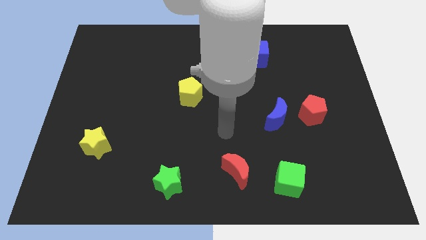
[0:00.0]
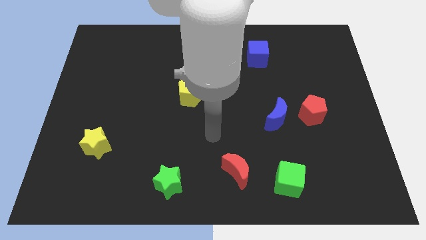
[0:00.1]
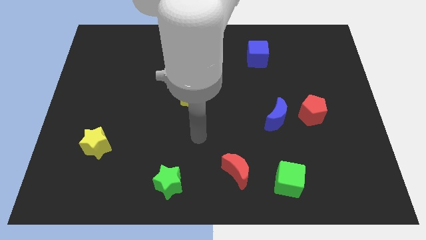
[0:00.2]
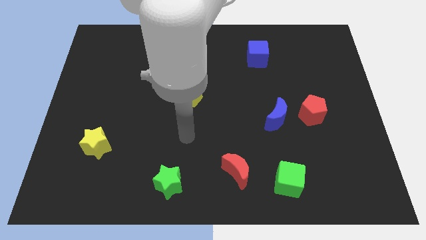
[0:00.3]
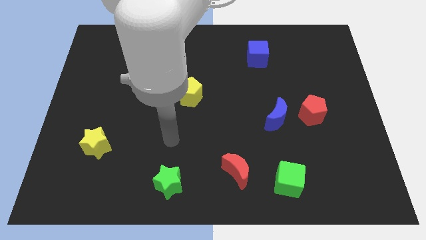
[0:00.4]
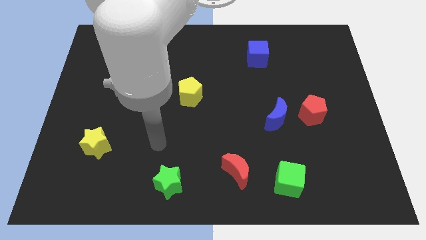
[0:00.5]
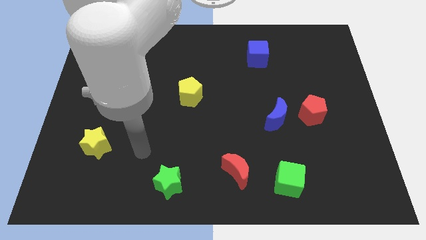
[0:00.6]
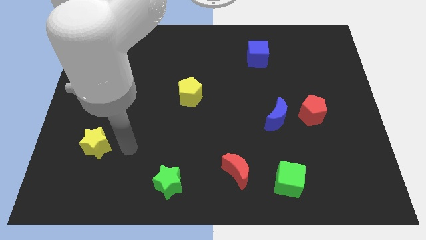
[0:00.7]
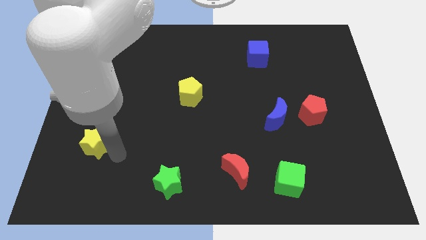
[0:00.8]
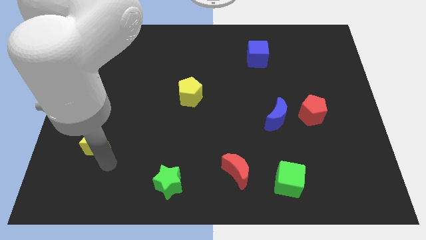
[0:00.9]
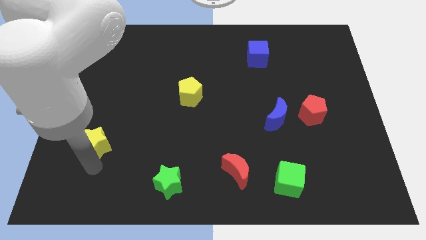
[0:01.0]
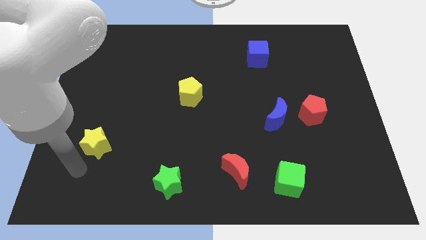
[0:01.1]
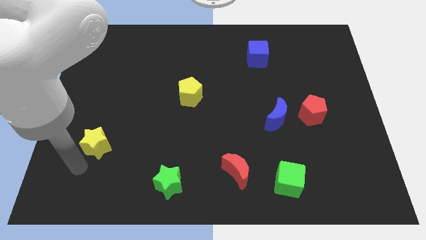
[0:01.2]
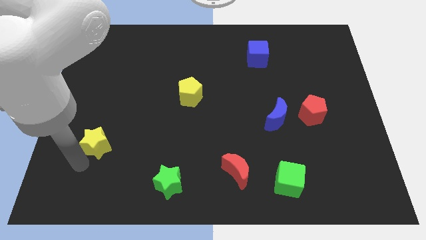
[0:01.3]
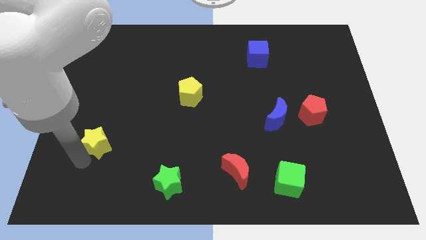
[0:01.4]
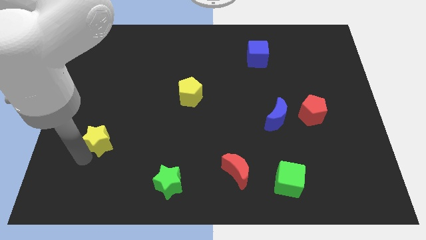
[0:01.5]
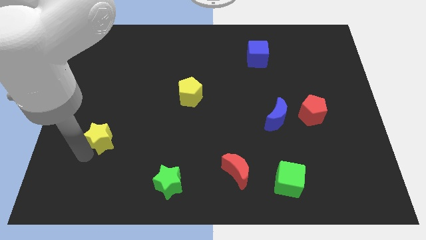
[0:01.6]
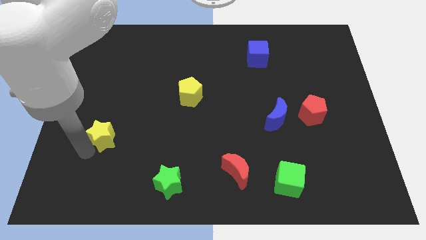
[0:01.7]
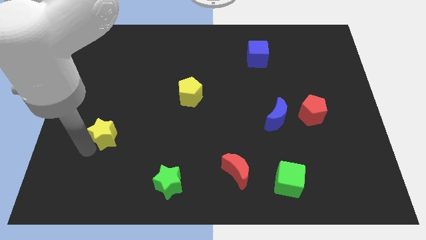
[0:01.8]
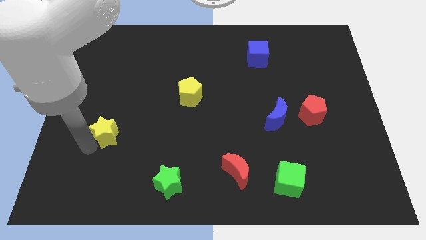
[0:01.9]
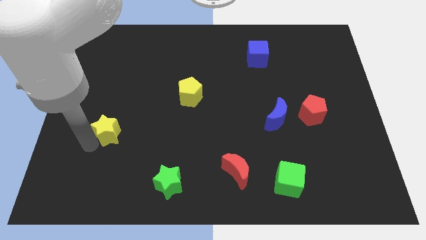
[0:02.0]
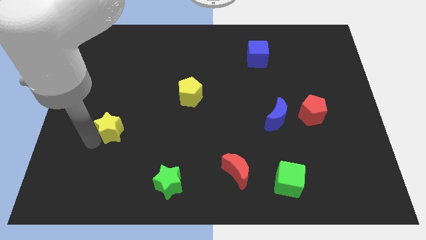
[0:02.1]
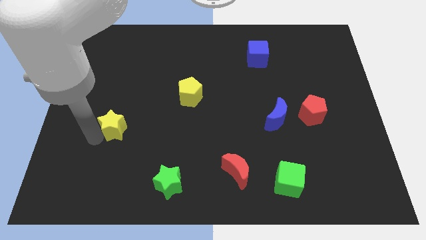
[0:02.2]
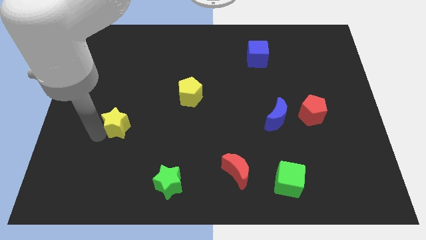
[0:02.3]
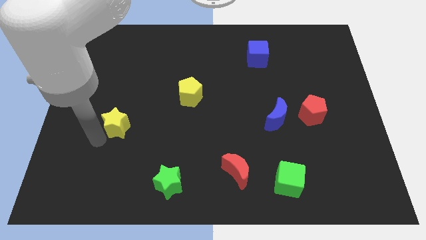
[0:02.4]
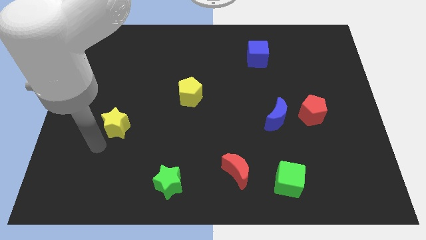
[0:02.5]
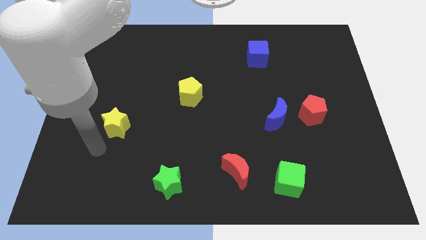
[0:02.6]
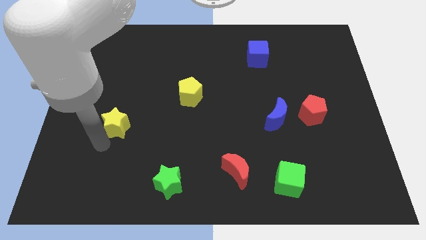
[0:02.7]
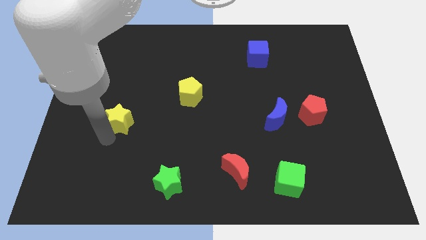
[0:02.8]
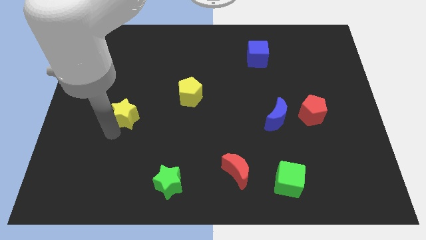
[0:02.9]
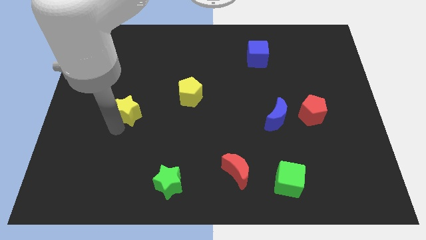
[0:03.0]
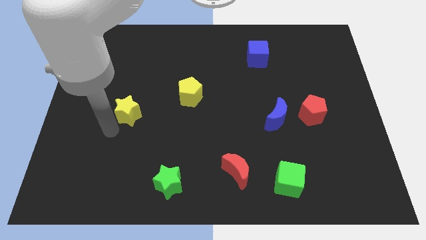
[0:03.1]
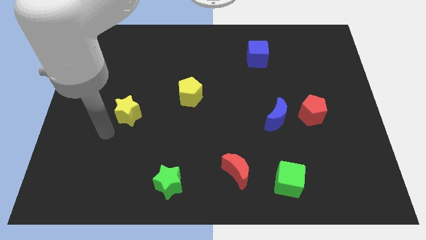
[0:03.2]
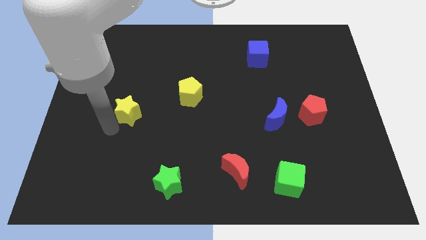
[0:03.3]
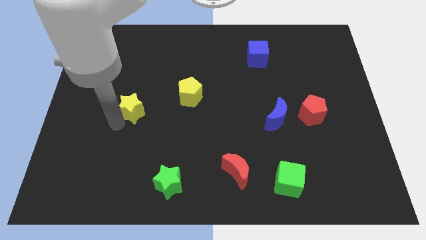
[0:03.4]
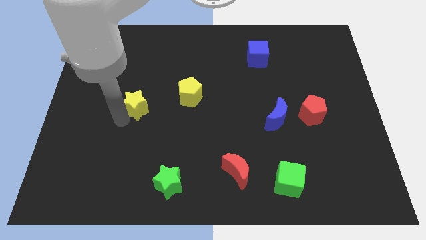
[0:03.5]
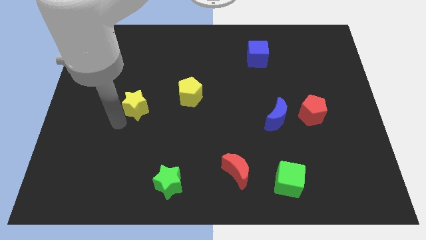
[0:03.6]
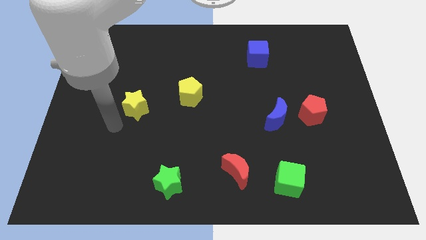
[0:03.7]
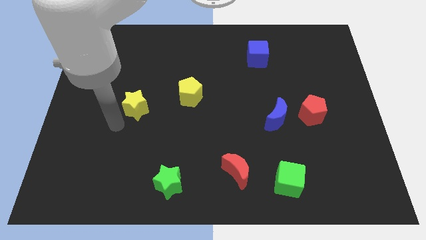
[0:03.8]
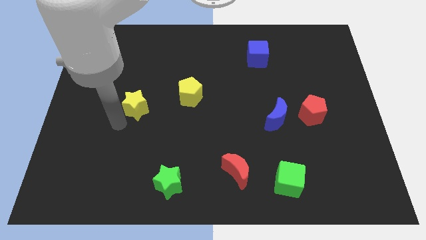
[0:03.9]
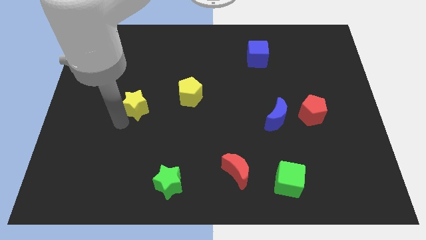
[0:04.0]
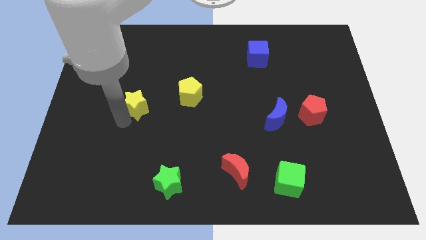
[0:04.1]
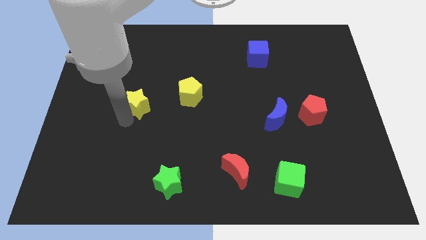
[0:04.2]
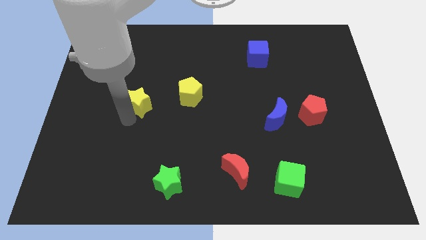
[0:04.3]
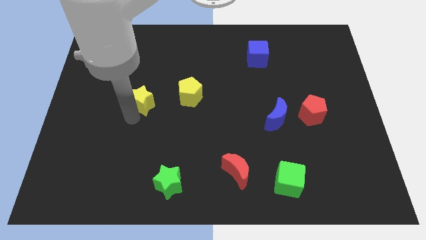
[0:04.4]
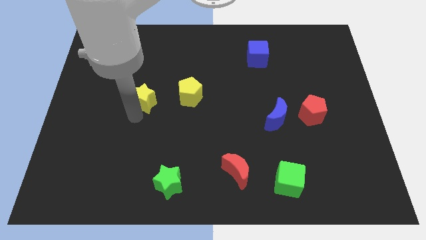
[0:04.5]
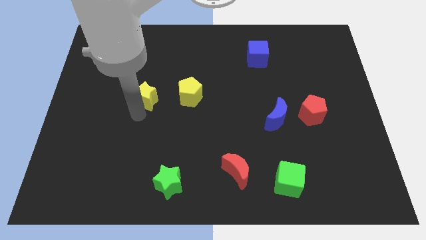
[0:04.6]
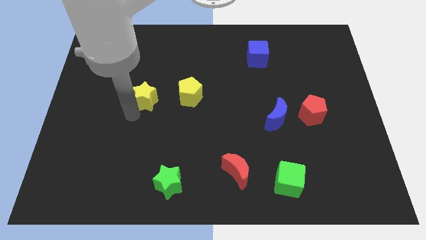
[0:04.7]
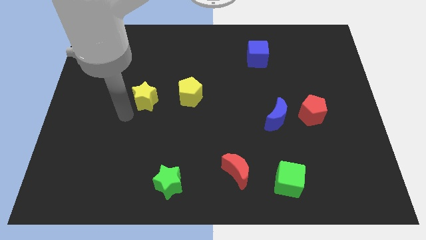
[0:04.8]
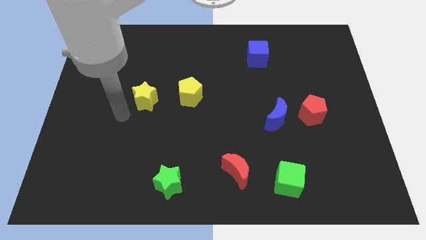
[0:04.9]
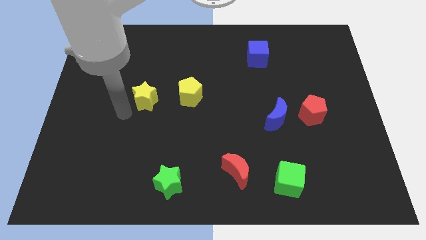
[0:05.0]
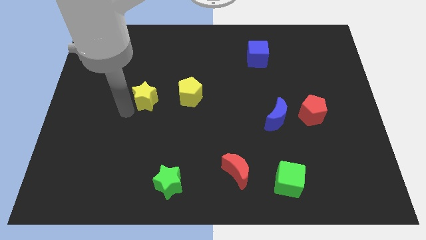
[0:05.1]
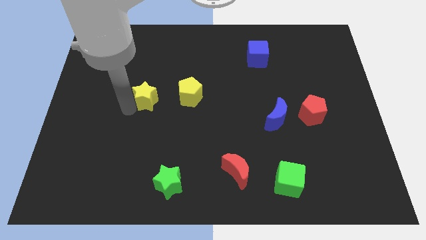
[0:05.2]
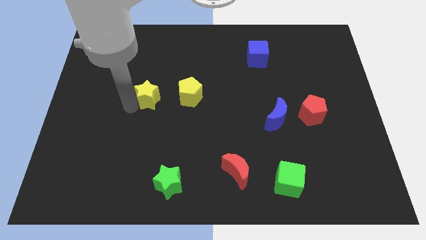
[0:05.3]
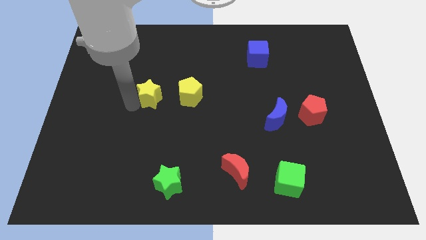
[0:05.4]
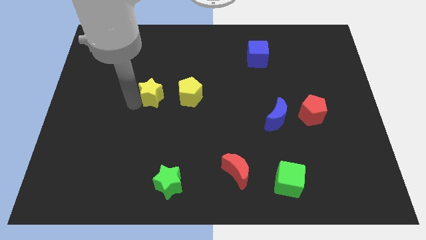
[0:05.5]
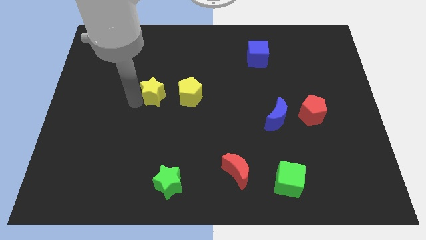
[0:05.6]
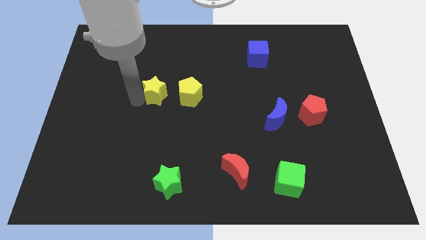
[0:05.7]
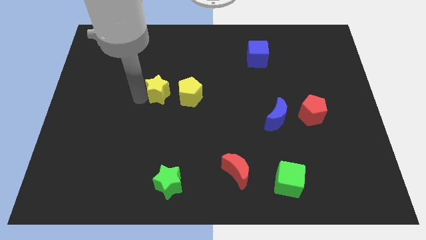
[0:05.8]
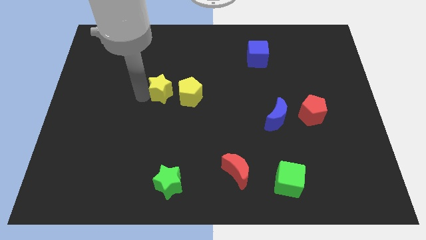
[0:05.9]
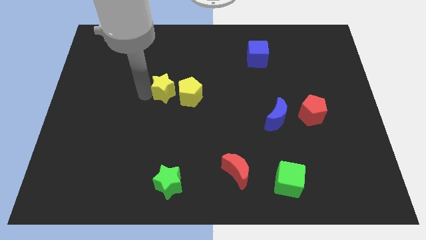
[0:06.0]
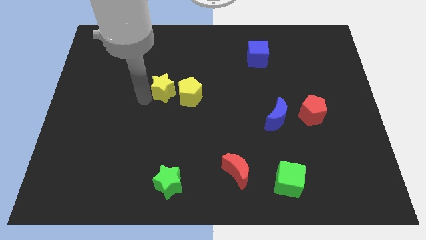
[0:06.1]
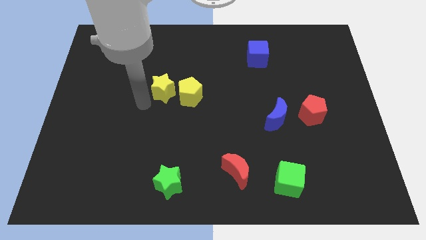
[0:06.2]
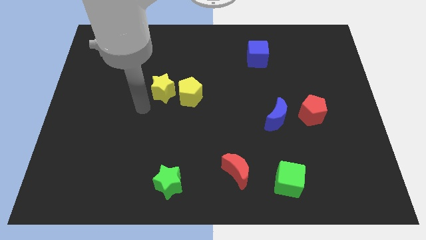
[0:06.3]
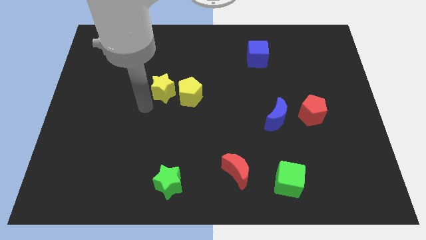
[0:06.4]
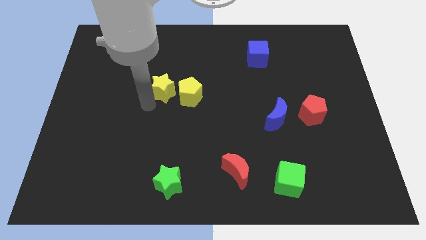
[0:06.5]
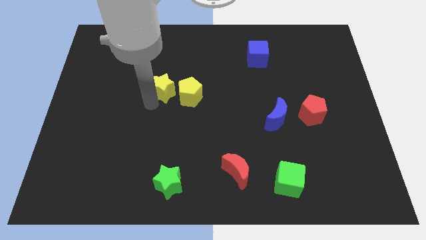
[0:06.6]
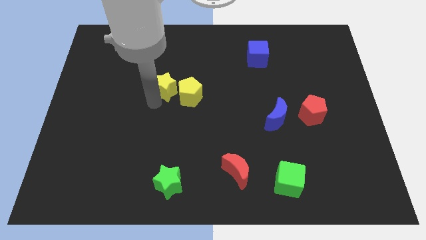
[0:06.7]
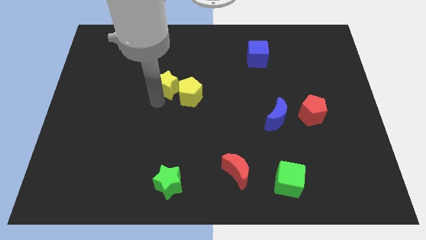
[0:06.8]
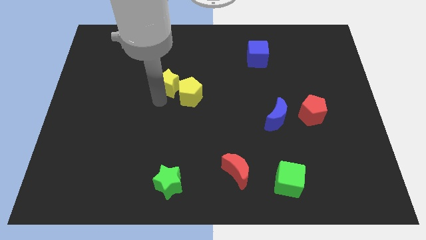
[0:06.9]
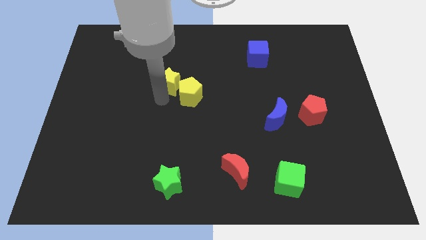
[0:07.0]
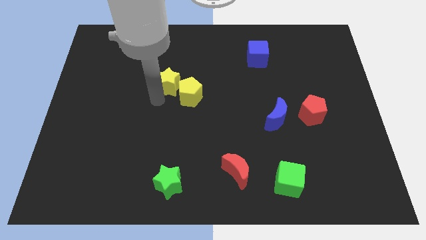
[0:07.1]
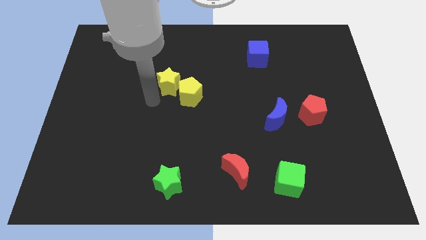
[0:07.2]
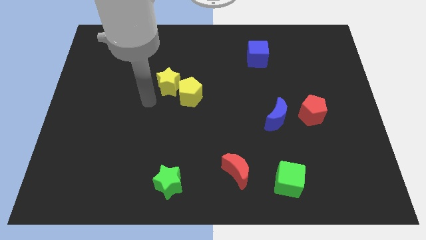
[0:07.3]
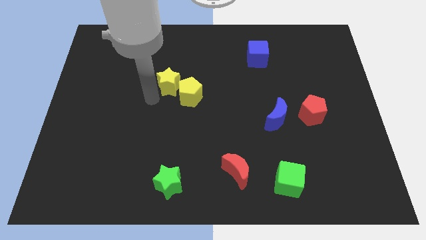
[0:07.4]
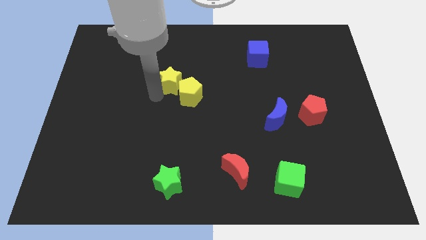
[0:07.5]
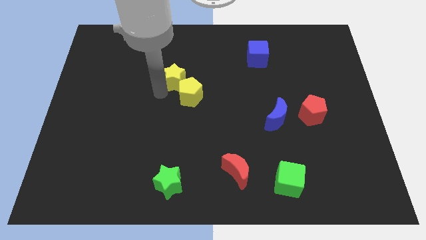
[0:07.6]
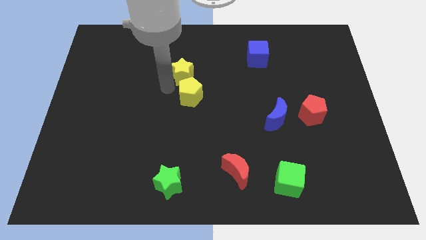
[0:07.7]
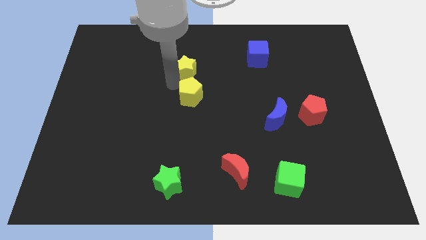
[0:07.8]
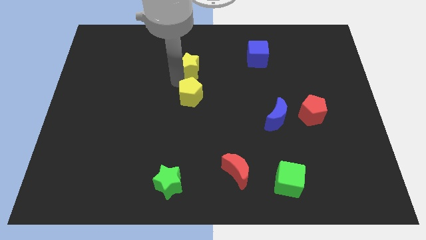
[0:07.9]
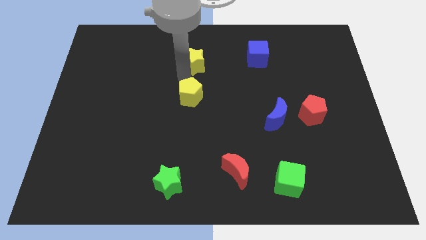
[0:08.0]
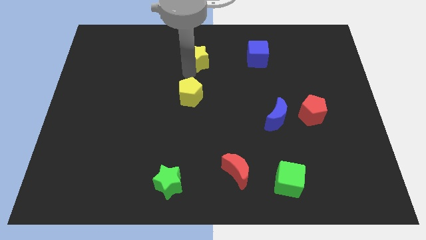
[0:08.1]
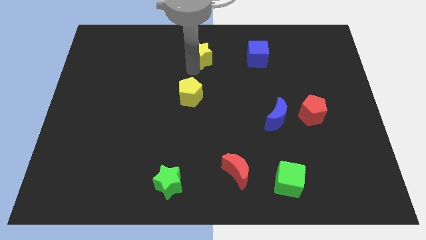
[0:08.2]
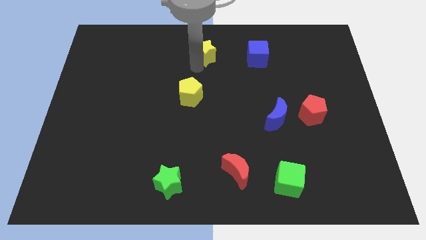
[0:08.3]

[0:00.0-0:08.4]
move the yellow star to the top side
